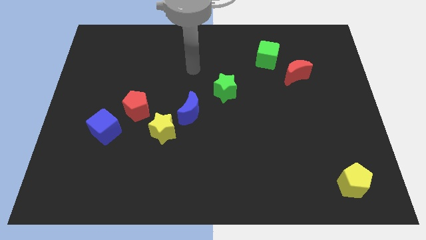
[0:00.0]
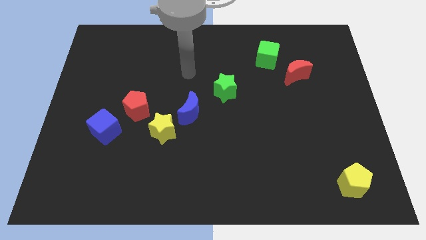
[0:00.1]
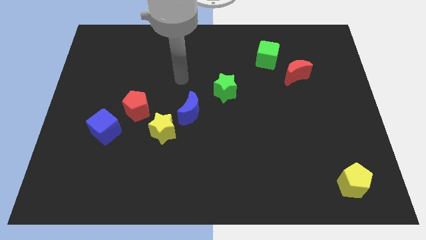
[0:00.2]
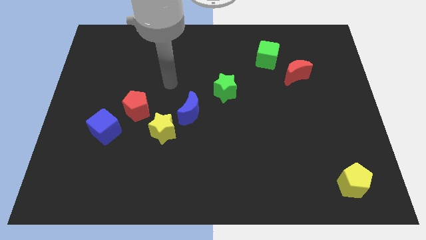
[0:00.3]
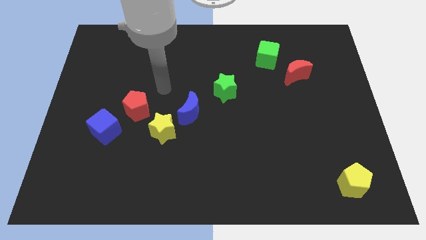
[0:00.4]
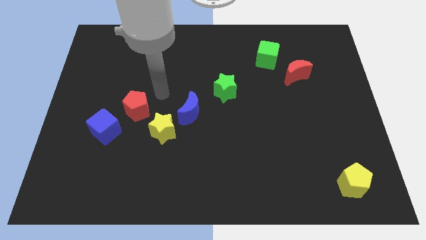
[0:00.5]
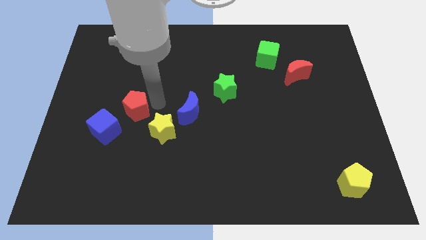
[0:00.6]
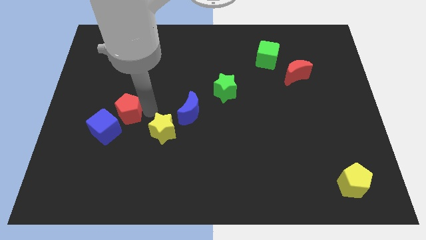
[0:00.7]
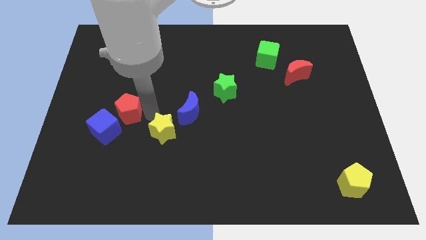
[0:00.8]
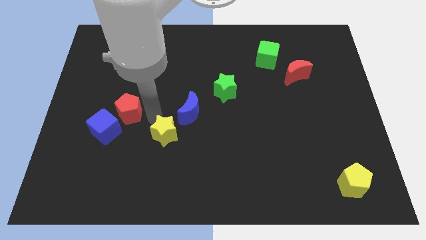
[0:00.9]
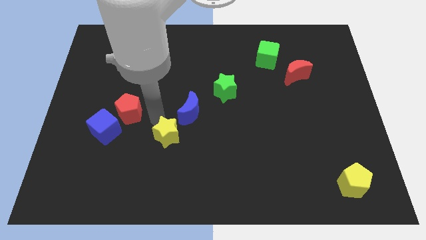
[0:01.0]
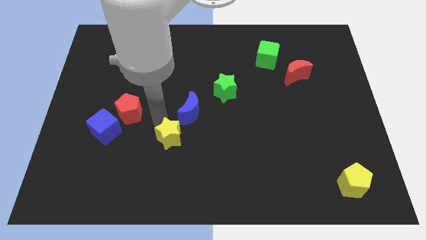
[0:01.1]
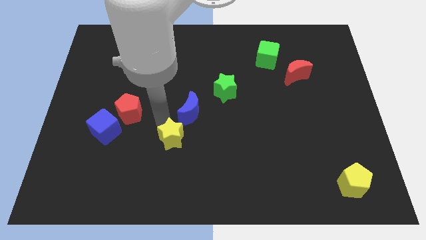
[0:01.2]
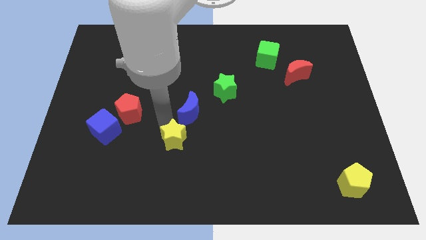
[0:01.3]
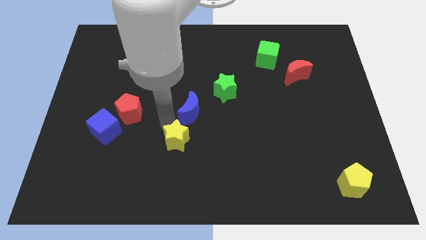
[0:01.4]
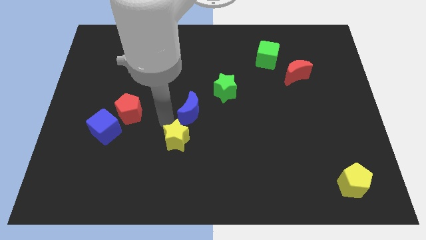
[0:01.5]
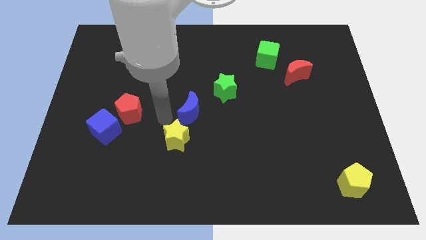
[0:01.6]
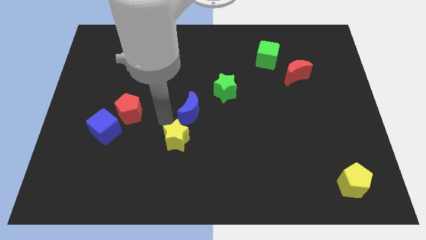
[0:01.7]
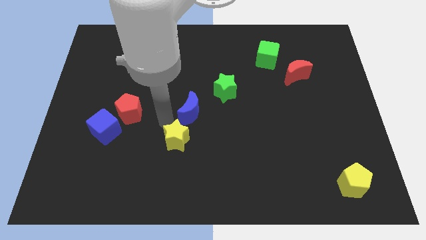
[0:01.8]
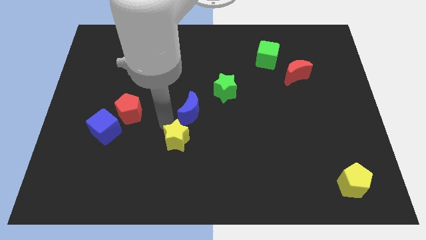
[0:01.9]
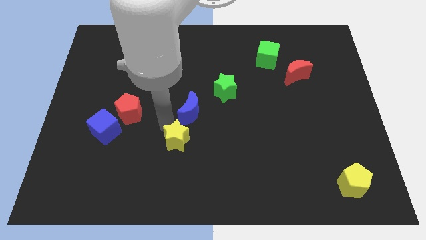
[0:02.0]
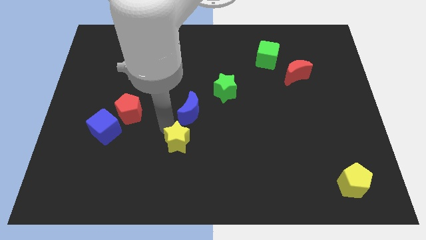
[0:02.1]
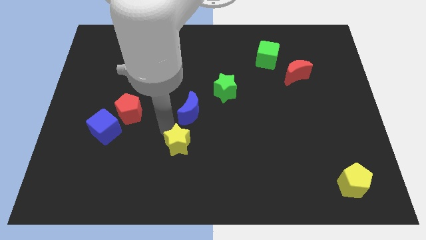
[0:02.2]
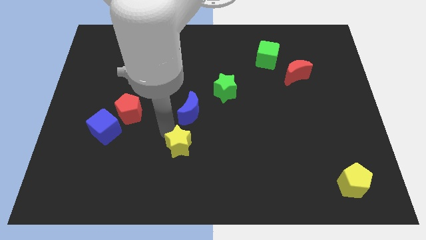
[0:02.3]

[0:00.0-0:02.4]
move the yellow star away from the blue moon and red pentagon

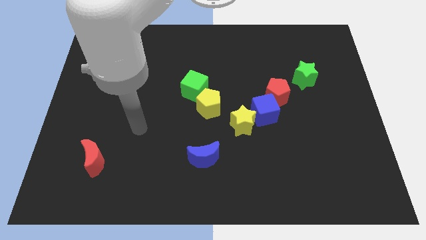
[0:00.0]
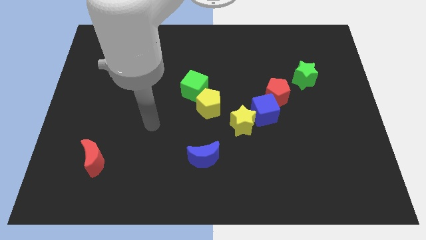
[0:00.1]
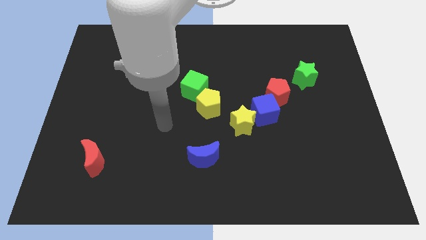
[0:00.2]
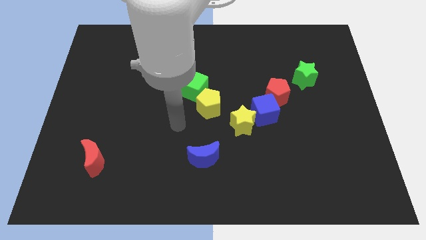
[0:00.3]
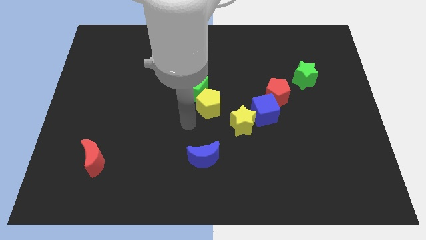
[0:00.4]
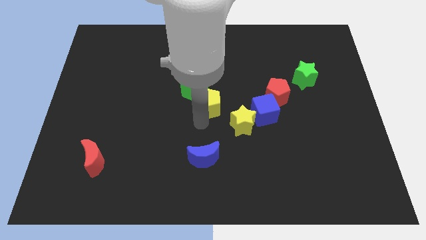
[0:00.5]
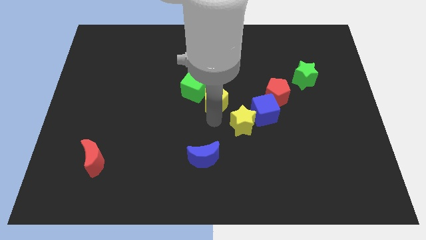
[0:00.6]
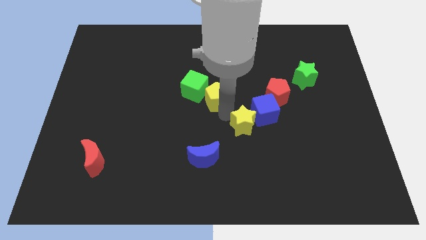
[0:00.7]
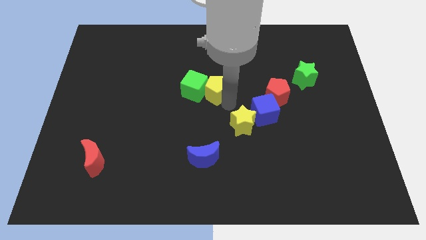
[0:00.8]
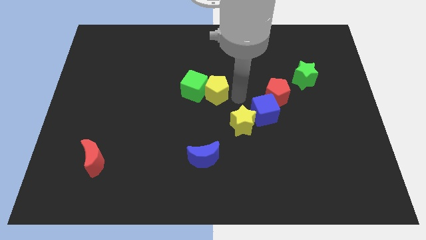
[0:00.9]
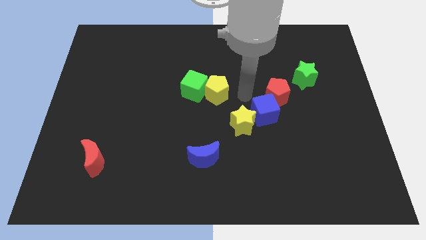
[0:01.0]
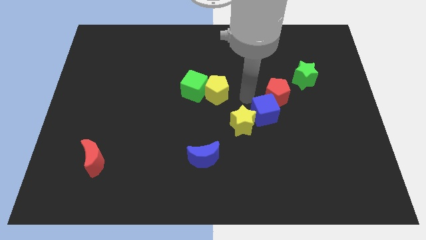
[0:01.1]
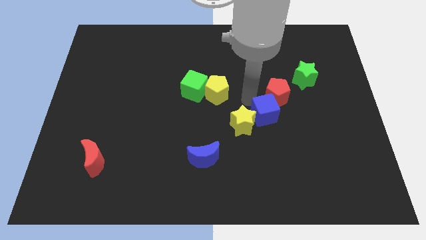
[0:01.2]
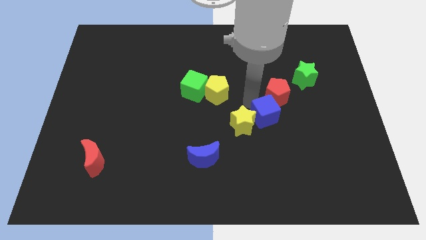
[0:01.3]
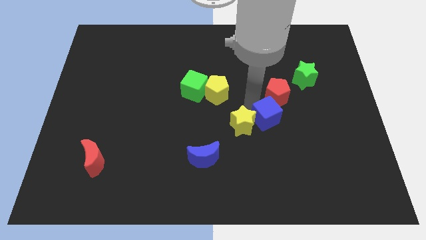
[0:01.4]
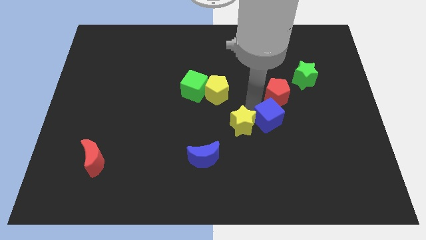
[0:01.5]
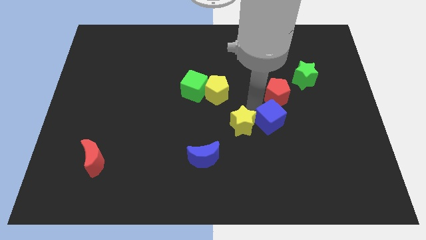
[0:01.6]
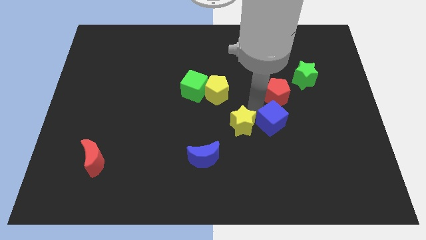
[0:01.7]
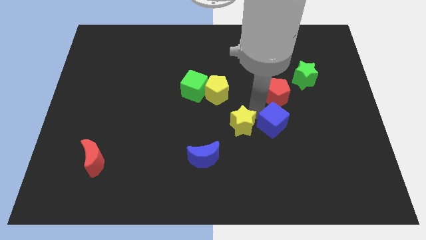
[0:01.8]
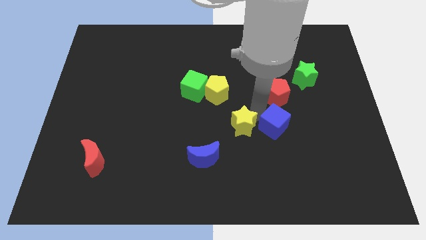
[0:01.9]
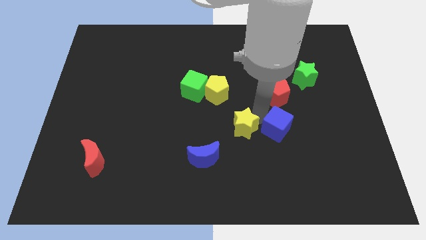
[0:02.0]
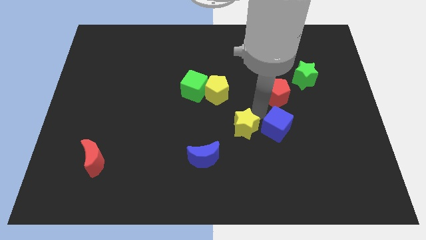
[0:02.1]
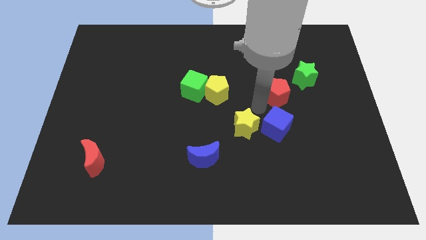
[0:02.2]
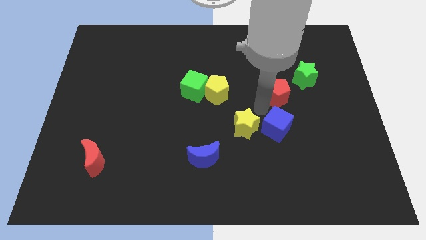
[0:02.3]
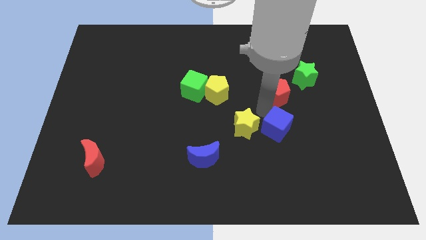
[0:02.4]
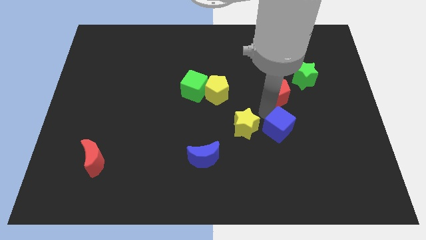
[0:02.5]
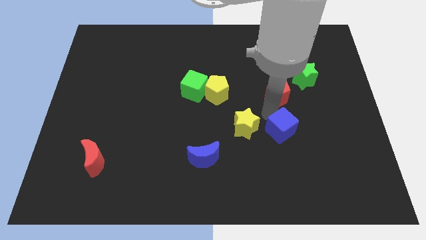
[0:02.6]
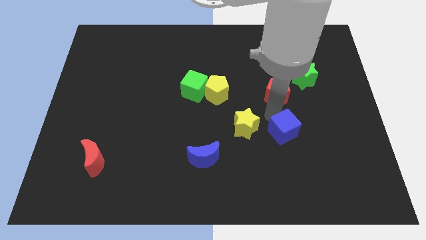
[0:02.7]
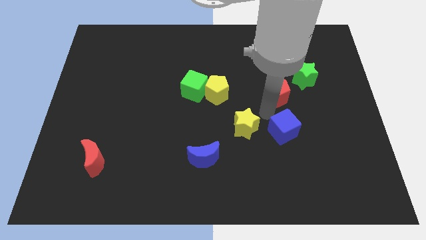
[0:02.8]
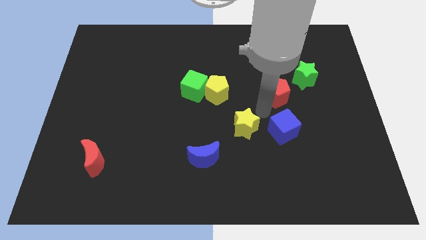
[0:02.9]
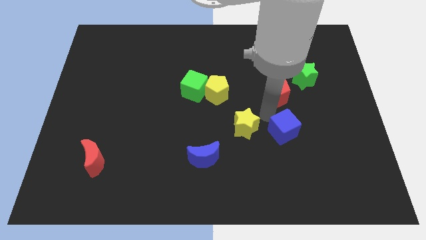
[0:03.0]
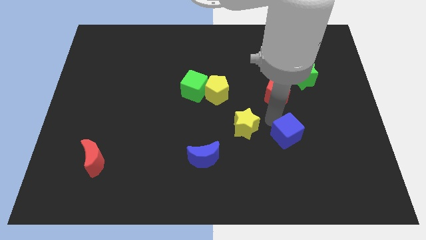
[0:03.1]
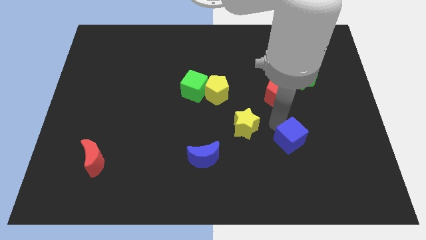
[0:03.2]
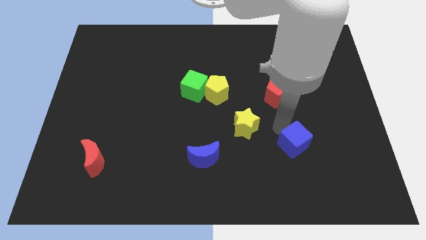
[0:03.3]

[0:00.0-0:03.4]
separate the blue cube from the yellow star and red pentagon

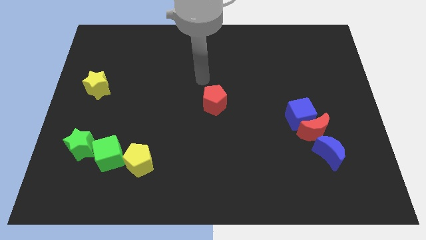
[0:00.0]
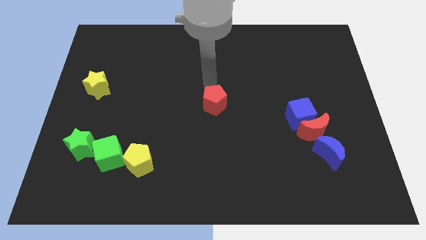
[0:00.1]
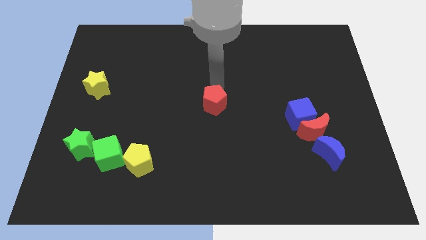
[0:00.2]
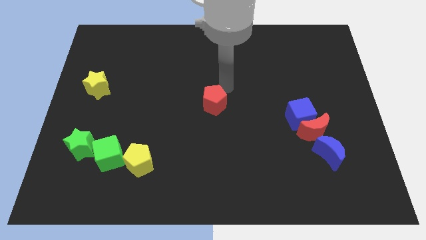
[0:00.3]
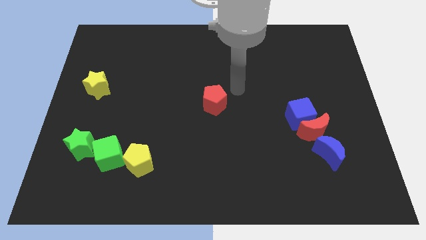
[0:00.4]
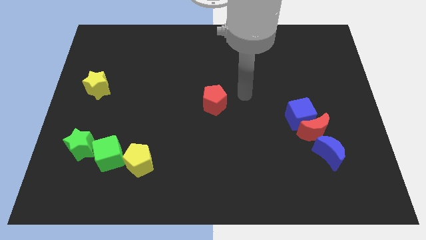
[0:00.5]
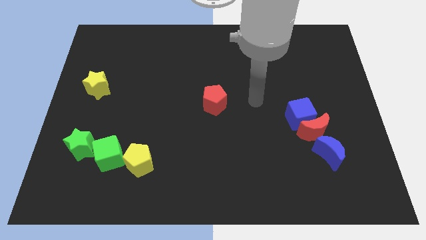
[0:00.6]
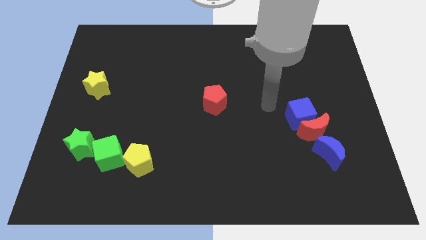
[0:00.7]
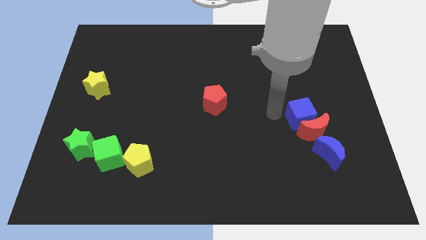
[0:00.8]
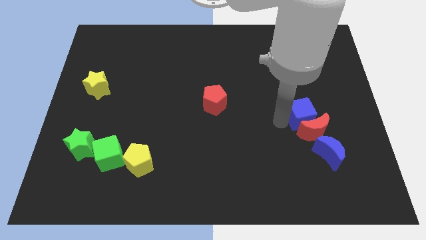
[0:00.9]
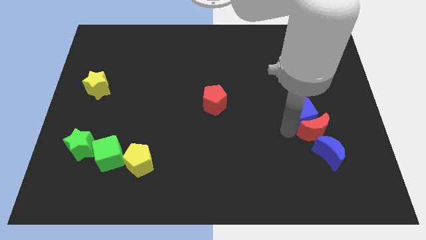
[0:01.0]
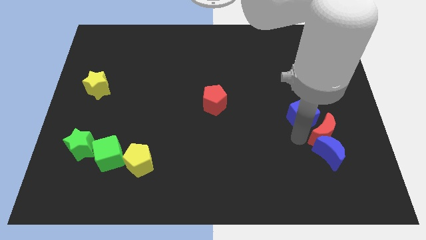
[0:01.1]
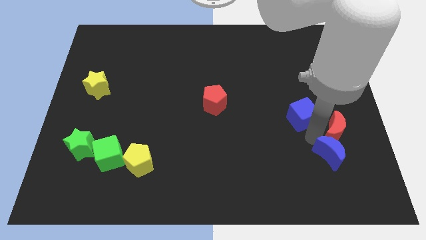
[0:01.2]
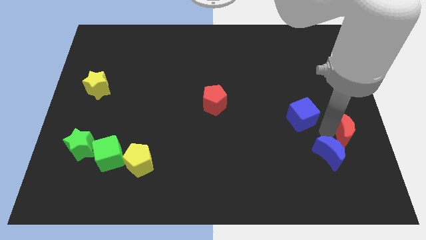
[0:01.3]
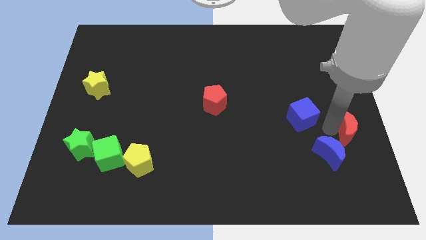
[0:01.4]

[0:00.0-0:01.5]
move the blue cube away from the red moon

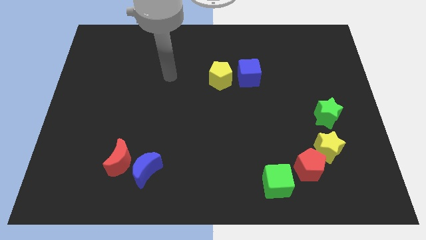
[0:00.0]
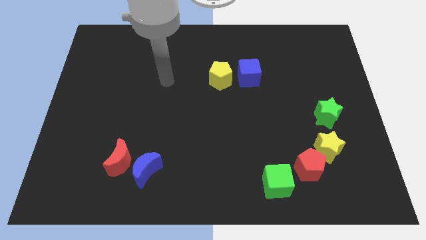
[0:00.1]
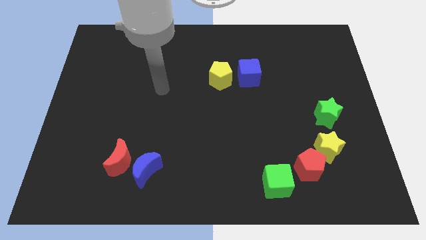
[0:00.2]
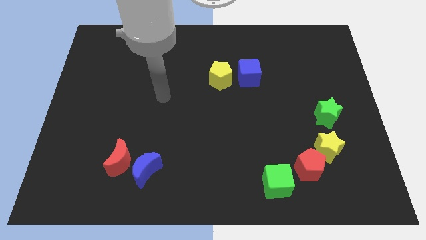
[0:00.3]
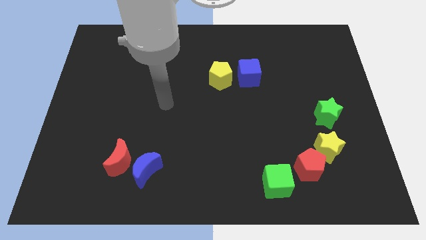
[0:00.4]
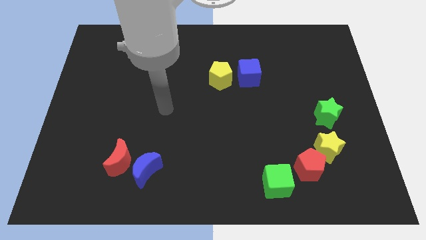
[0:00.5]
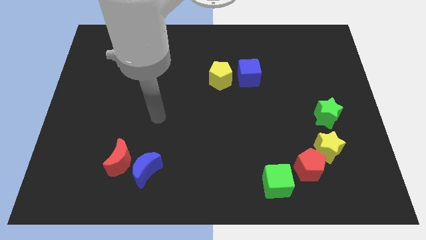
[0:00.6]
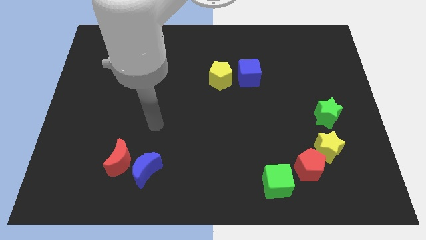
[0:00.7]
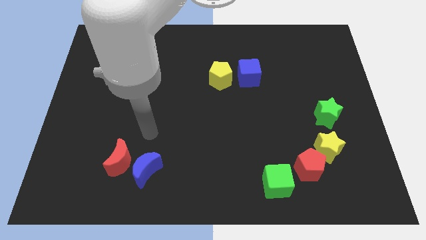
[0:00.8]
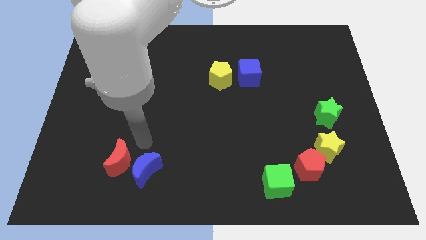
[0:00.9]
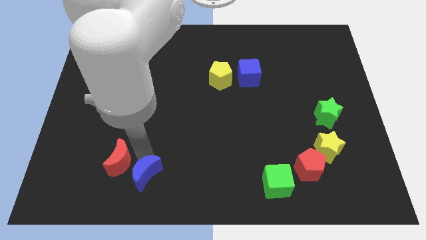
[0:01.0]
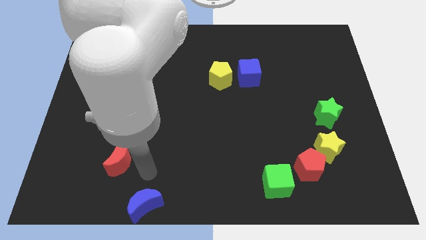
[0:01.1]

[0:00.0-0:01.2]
pull the red moon apart from the blue moon

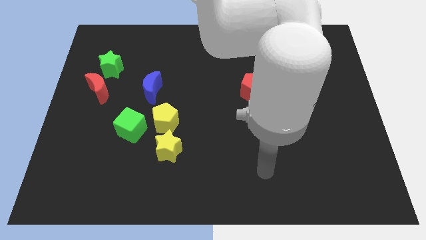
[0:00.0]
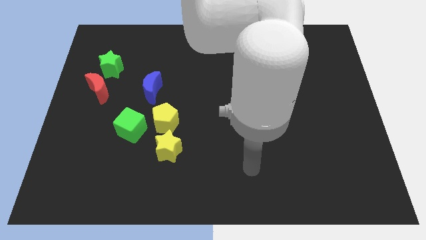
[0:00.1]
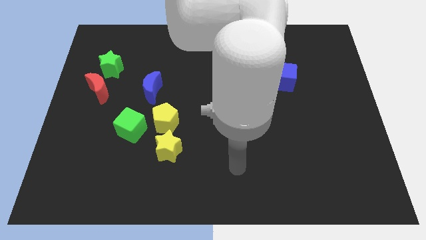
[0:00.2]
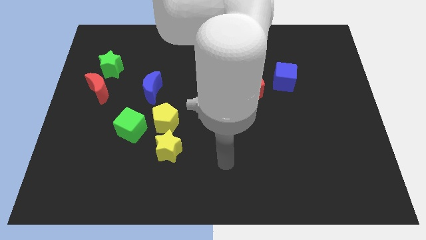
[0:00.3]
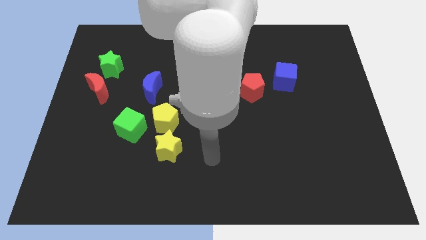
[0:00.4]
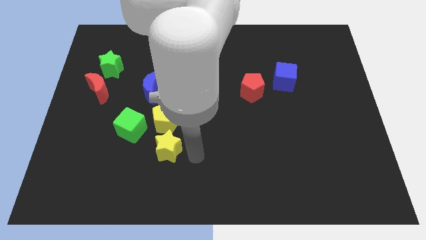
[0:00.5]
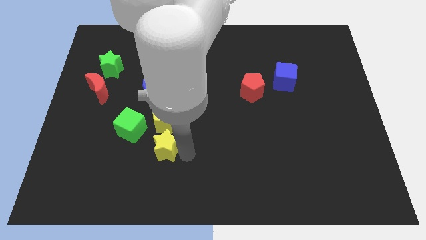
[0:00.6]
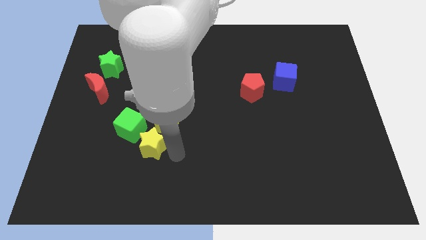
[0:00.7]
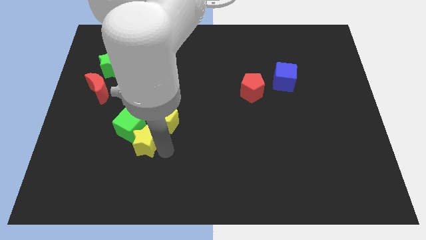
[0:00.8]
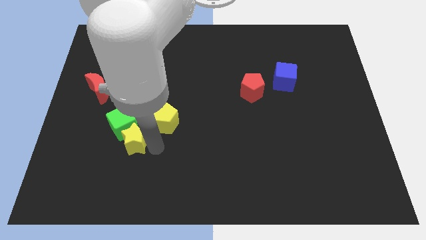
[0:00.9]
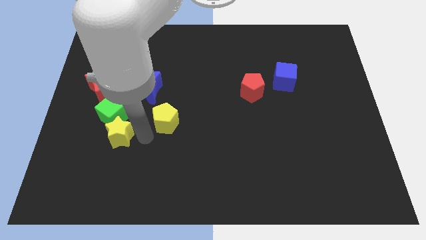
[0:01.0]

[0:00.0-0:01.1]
move the yellow pentagon away from the yellow star and green cube
